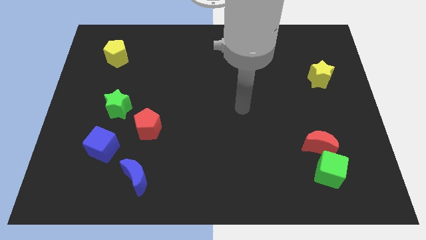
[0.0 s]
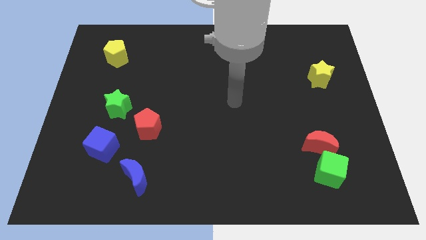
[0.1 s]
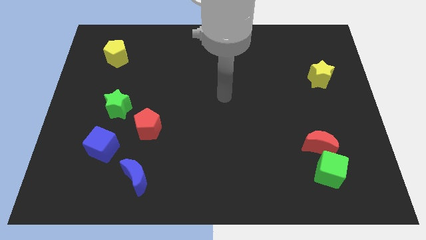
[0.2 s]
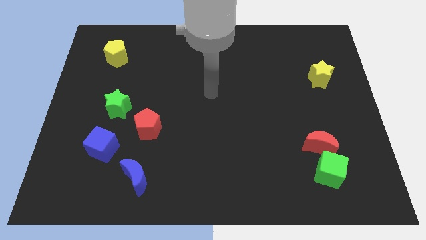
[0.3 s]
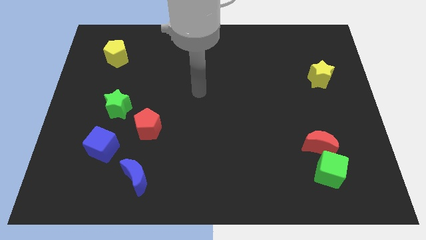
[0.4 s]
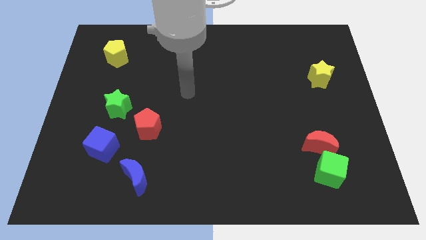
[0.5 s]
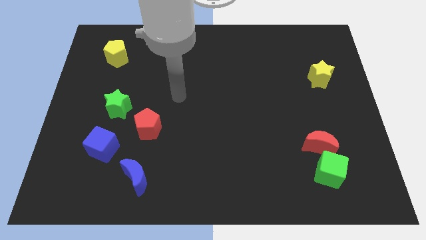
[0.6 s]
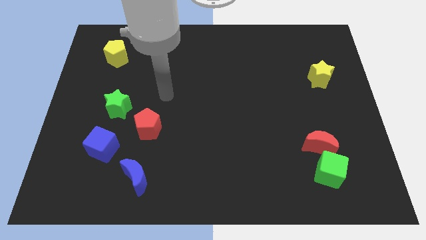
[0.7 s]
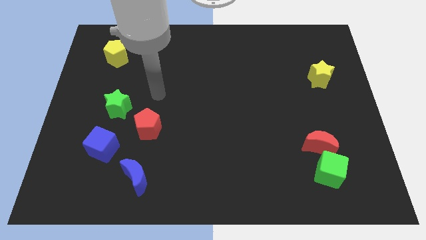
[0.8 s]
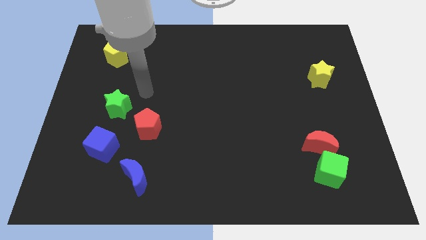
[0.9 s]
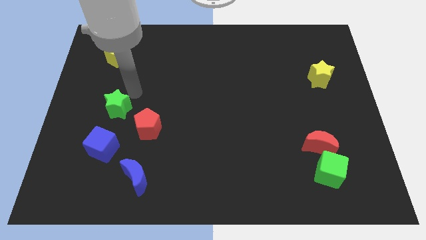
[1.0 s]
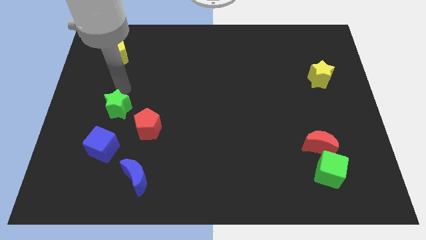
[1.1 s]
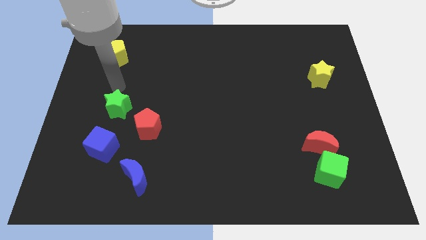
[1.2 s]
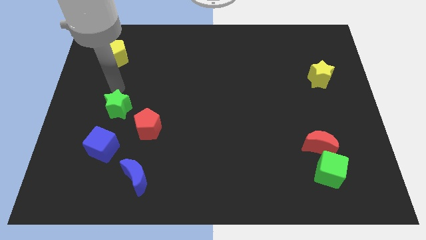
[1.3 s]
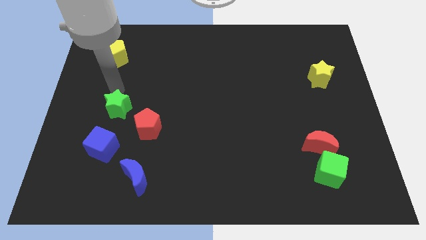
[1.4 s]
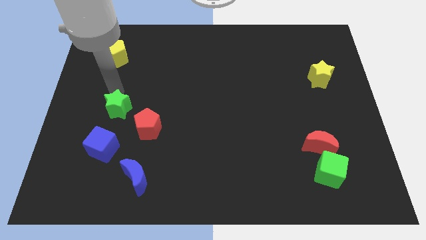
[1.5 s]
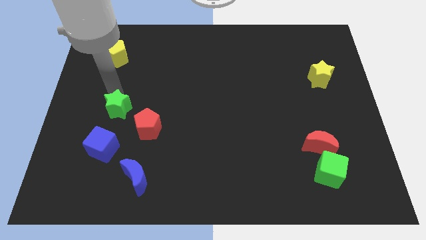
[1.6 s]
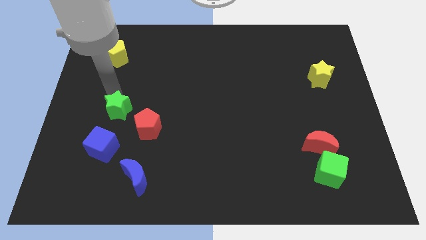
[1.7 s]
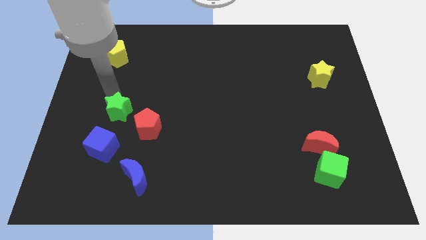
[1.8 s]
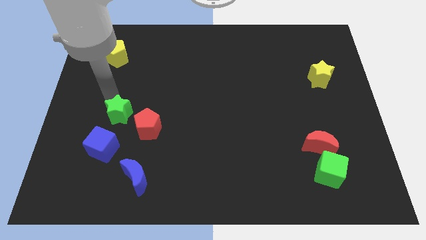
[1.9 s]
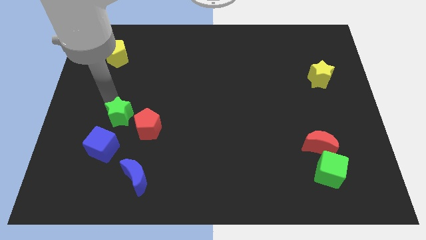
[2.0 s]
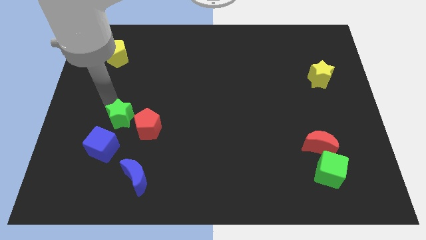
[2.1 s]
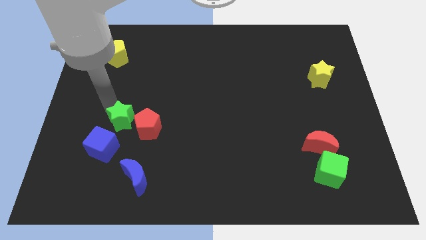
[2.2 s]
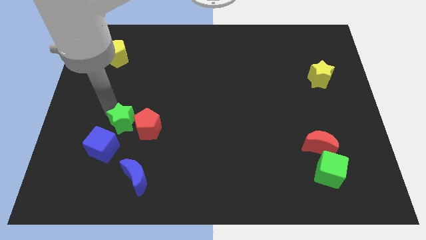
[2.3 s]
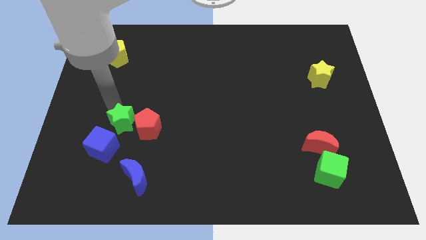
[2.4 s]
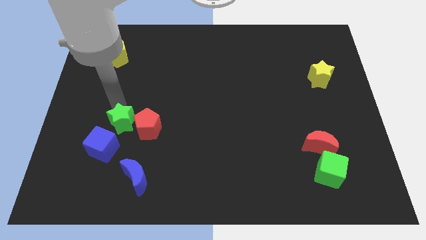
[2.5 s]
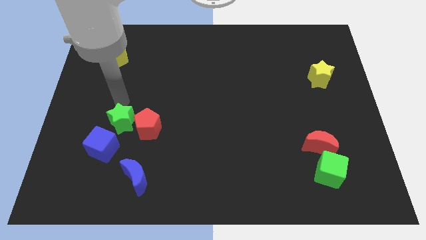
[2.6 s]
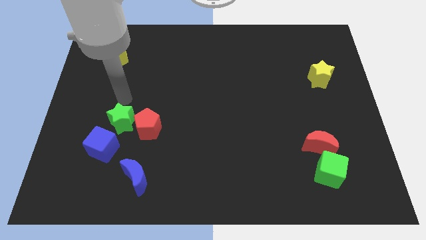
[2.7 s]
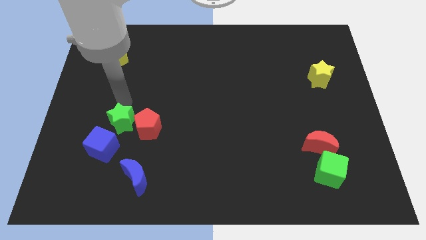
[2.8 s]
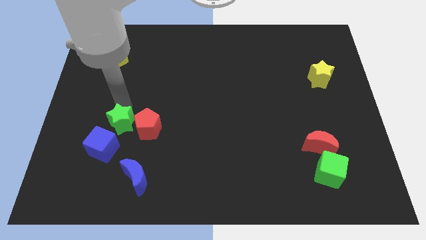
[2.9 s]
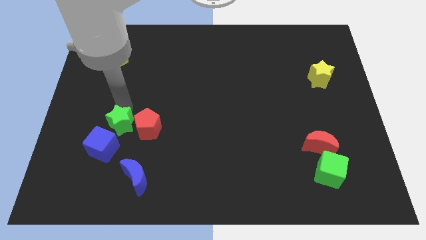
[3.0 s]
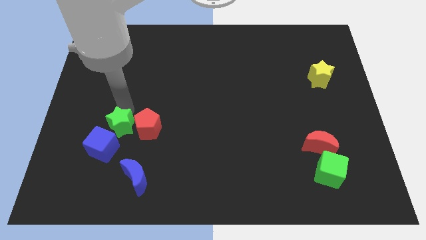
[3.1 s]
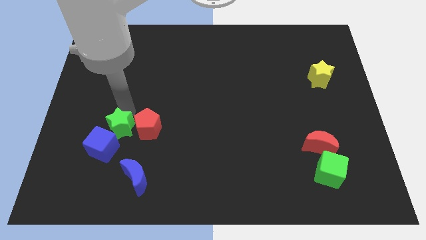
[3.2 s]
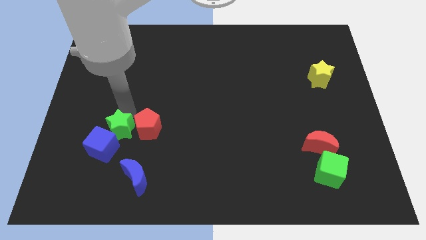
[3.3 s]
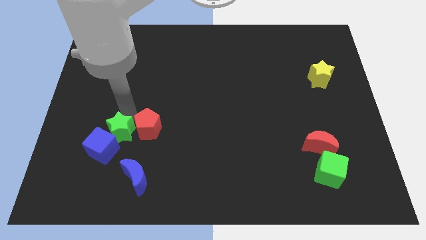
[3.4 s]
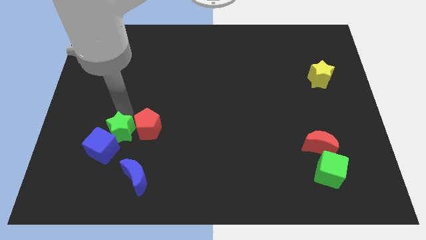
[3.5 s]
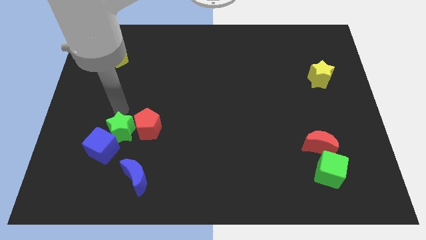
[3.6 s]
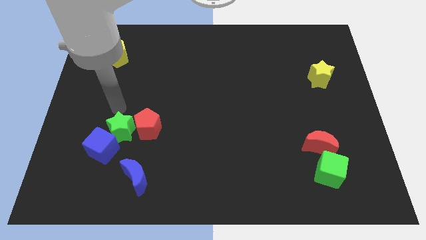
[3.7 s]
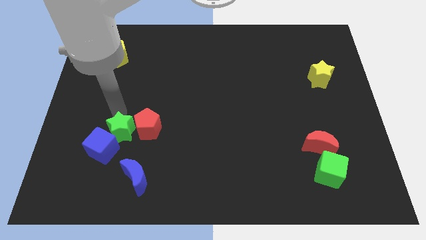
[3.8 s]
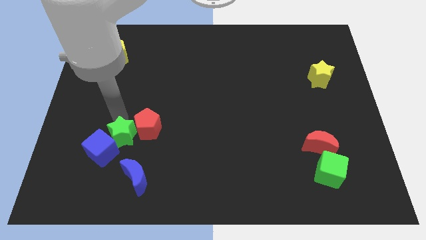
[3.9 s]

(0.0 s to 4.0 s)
slightly slide the green star downwards

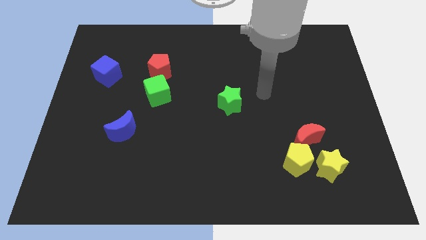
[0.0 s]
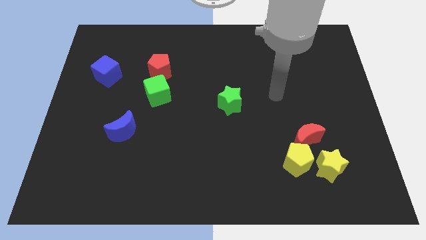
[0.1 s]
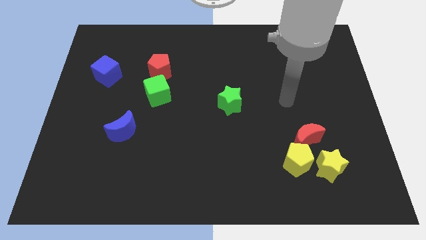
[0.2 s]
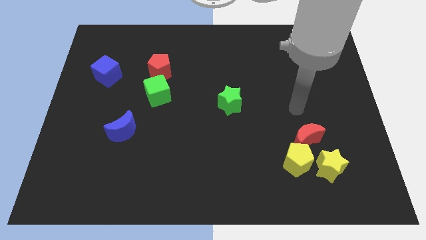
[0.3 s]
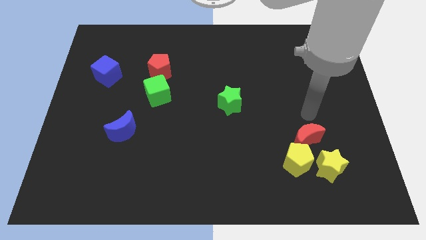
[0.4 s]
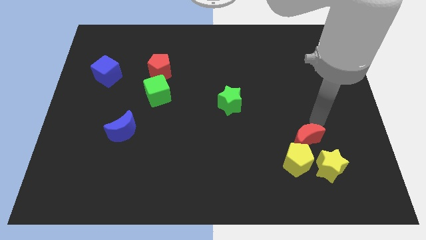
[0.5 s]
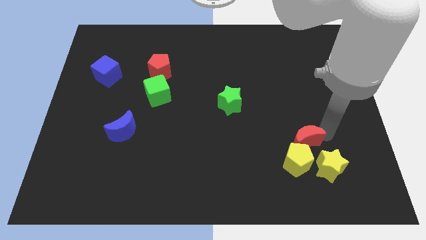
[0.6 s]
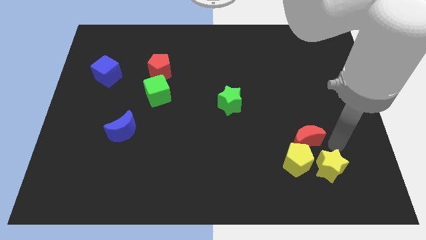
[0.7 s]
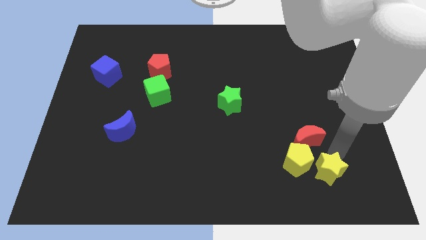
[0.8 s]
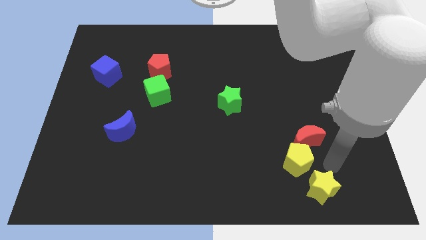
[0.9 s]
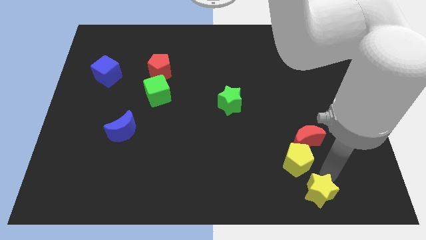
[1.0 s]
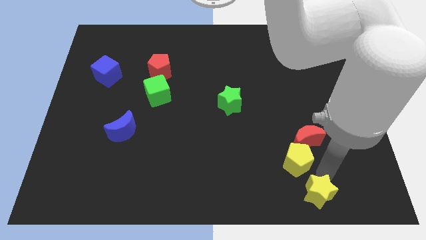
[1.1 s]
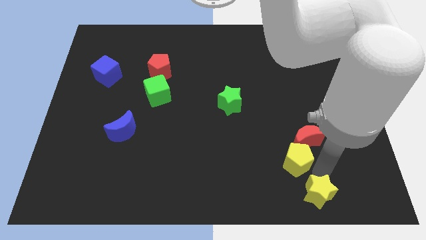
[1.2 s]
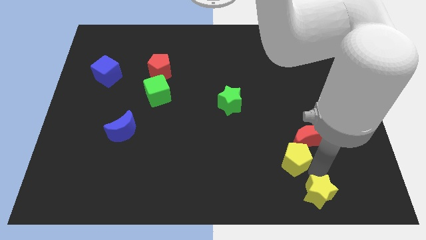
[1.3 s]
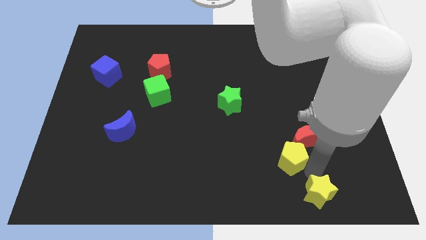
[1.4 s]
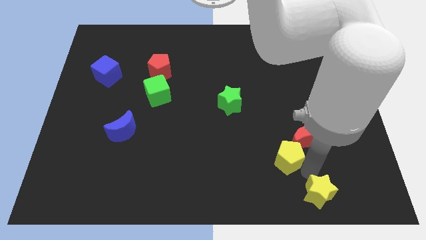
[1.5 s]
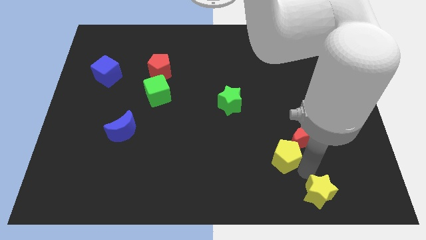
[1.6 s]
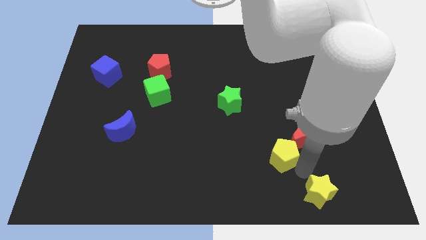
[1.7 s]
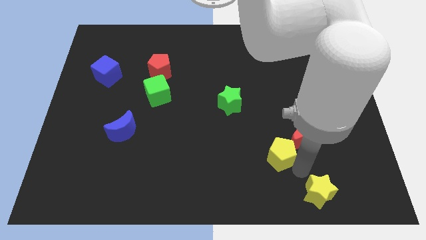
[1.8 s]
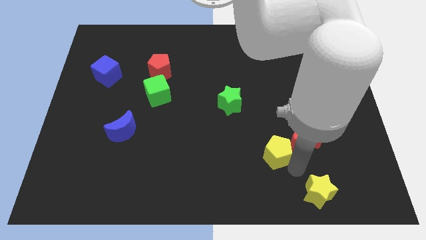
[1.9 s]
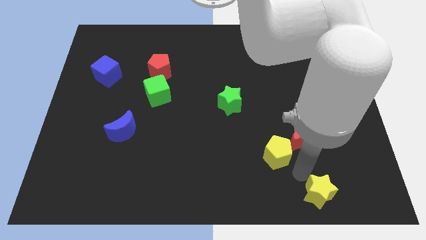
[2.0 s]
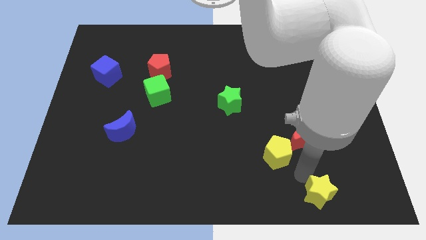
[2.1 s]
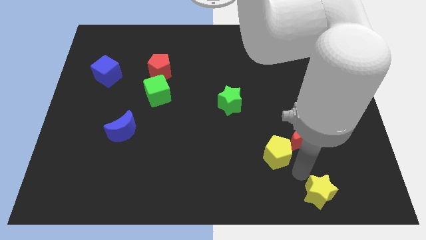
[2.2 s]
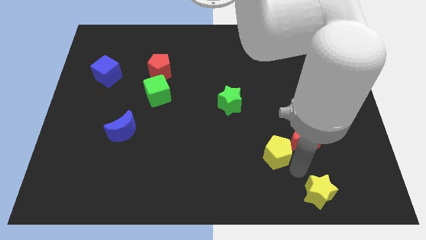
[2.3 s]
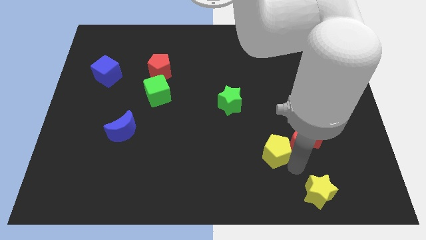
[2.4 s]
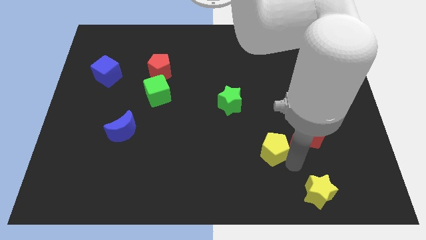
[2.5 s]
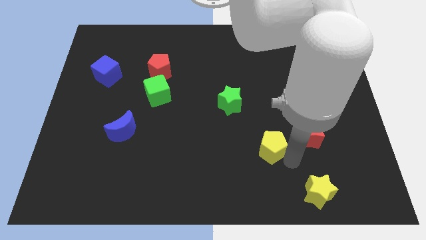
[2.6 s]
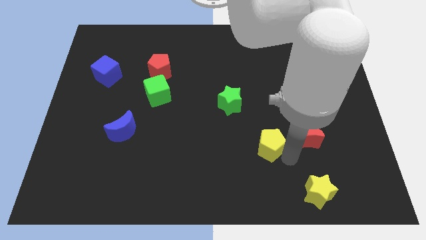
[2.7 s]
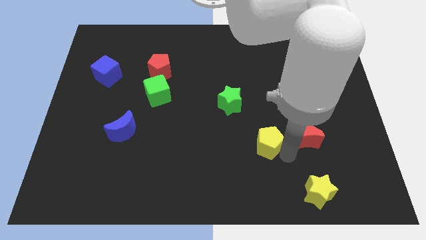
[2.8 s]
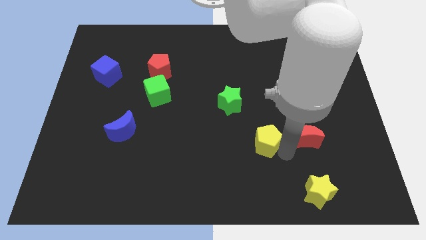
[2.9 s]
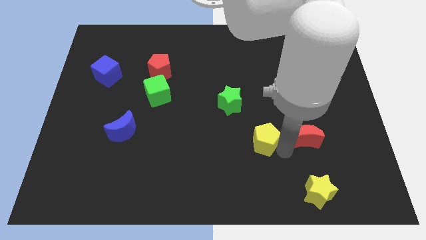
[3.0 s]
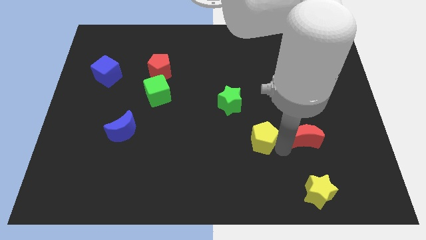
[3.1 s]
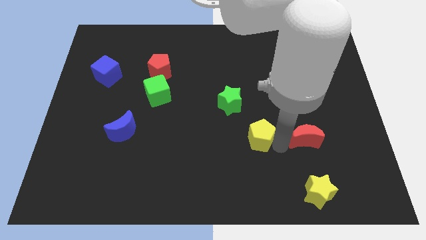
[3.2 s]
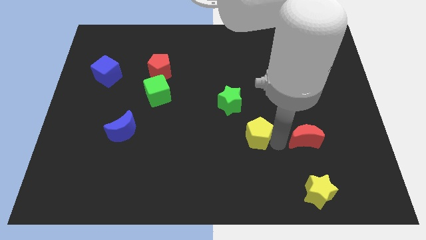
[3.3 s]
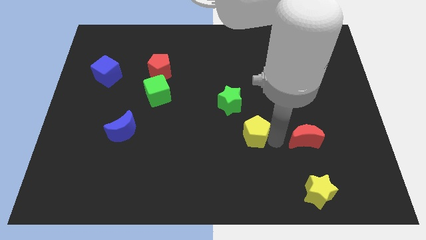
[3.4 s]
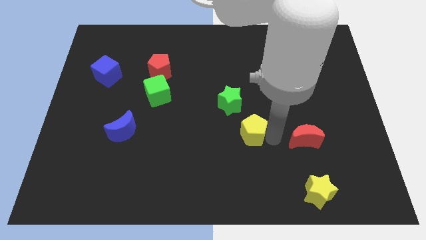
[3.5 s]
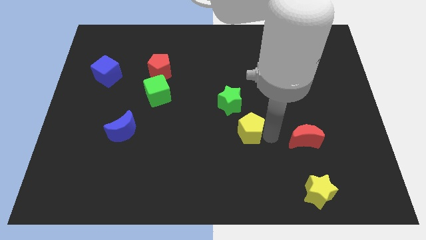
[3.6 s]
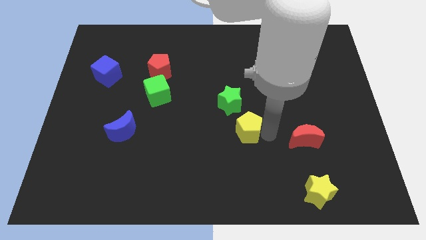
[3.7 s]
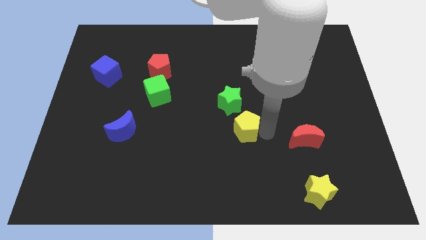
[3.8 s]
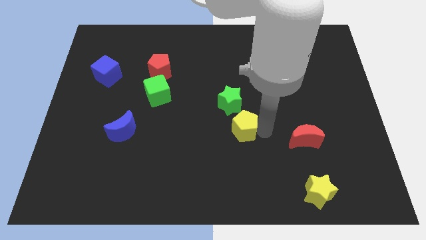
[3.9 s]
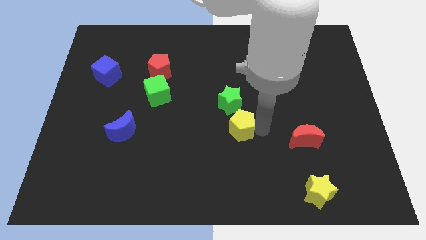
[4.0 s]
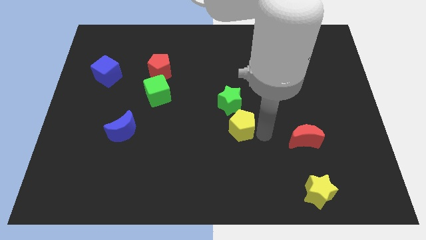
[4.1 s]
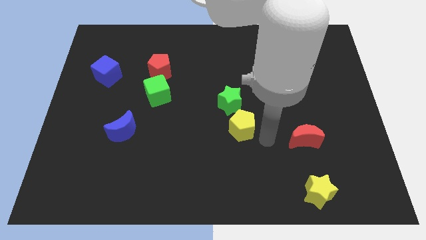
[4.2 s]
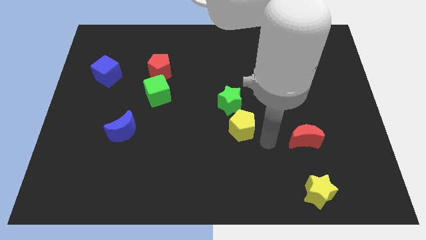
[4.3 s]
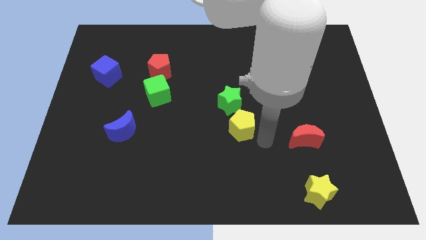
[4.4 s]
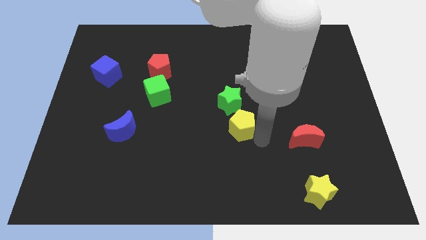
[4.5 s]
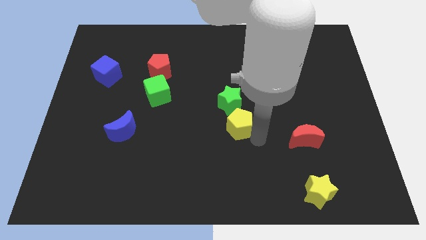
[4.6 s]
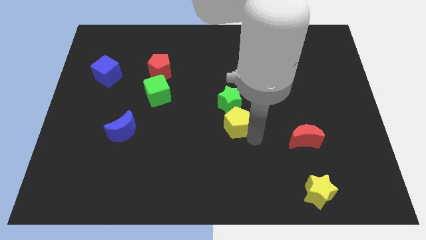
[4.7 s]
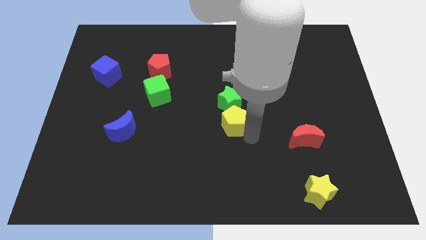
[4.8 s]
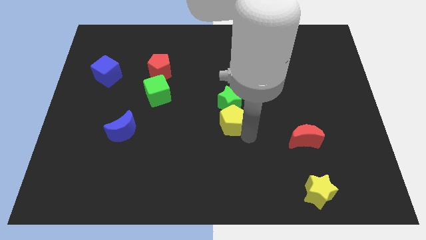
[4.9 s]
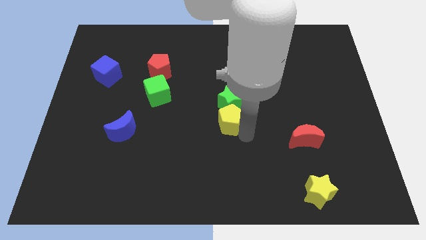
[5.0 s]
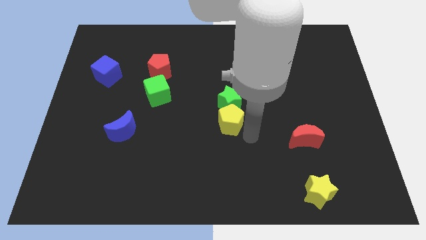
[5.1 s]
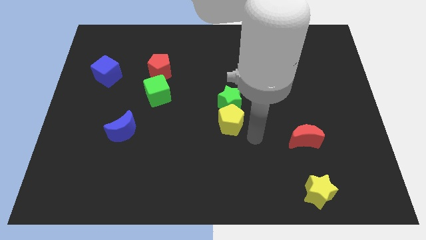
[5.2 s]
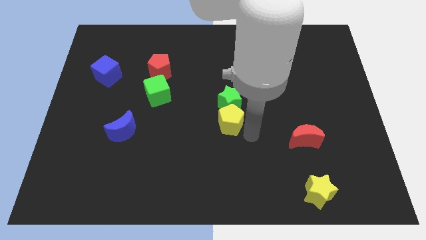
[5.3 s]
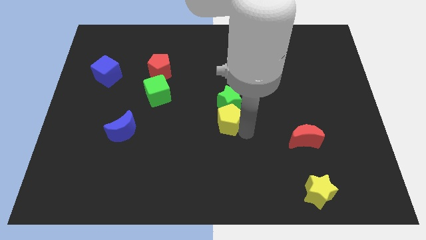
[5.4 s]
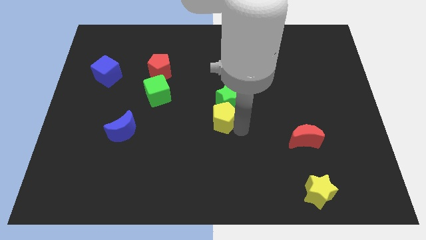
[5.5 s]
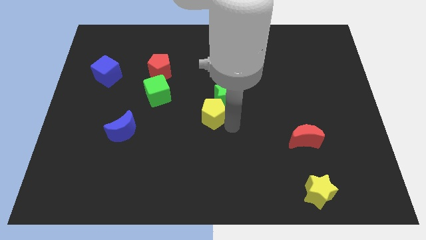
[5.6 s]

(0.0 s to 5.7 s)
push the yellow pentagon upwards and to the left
